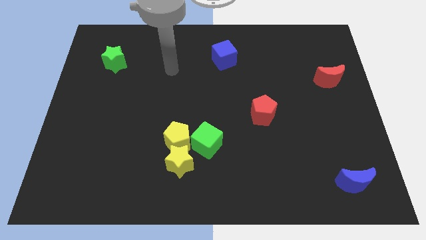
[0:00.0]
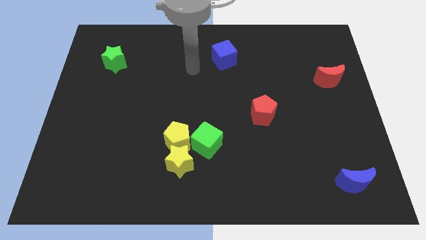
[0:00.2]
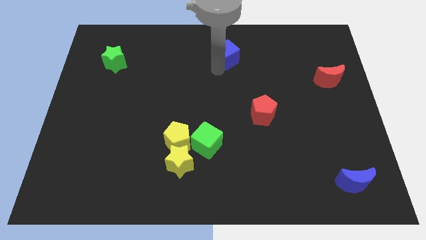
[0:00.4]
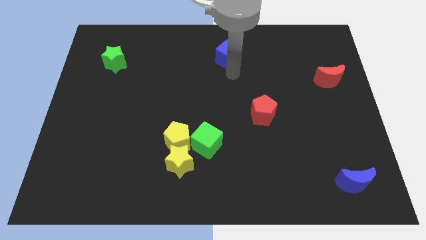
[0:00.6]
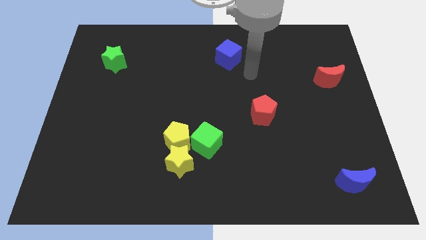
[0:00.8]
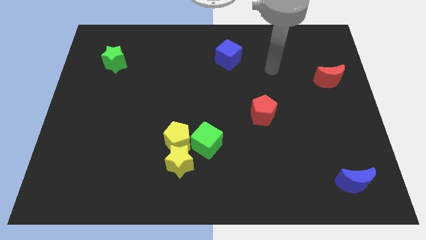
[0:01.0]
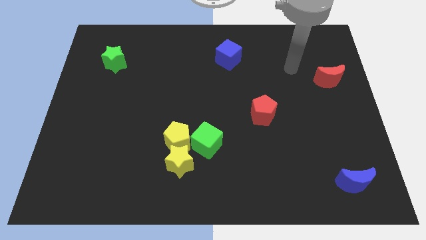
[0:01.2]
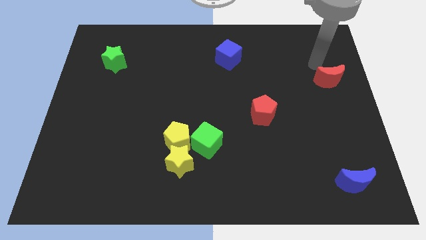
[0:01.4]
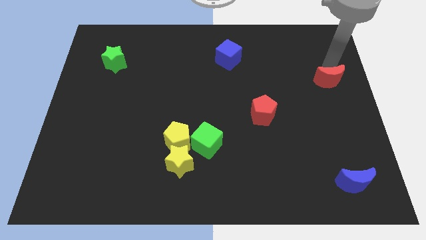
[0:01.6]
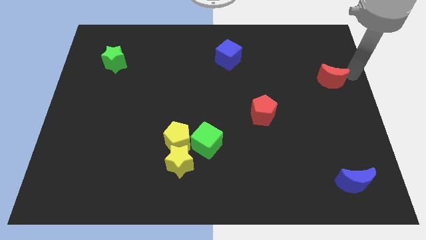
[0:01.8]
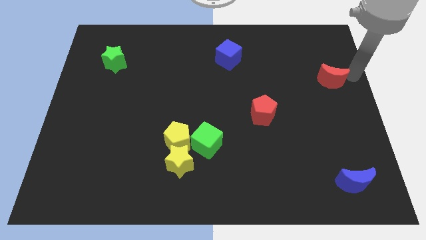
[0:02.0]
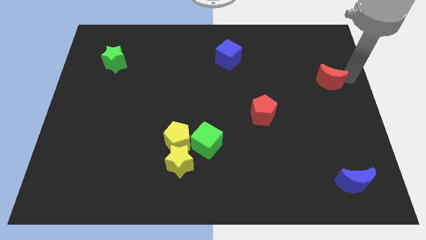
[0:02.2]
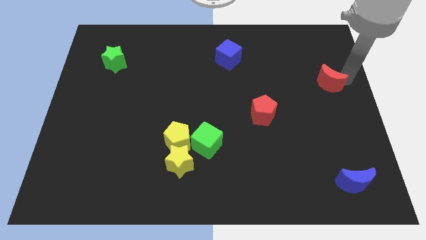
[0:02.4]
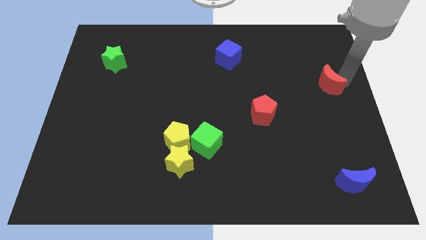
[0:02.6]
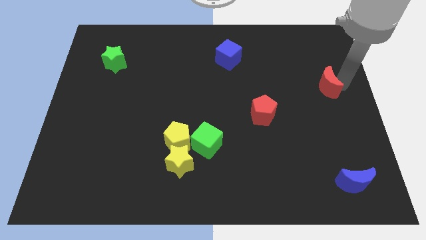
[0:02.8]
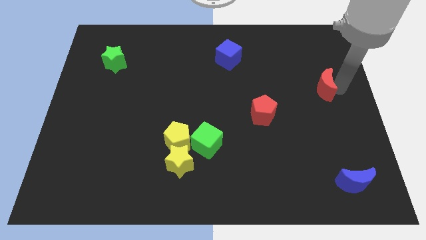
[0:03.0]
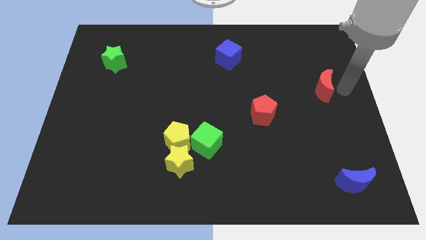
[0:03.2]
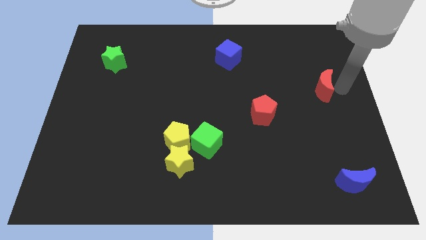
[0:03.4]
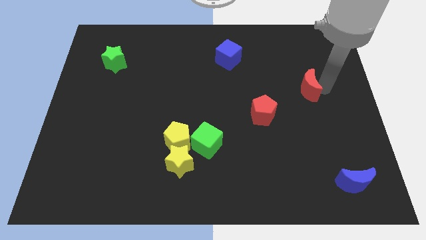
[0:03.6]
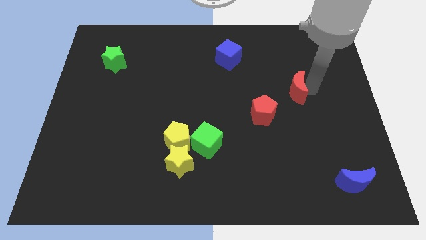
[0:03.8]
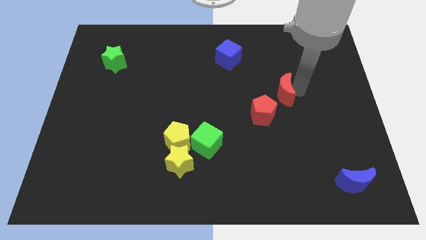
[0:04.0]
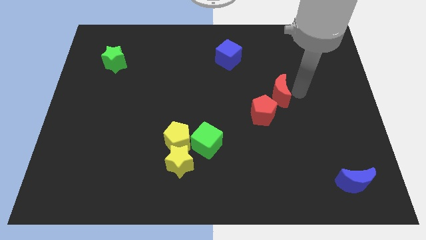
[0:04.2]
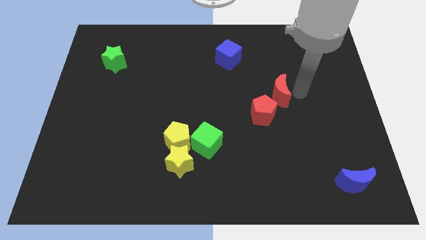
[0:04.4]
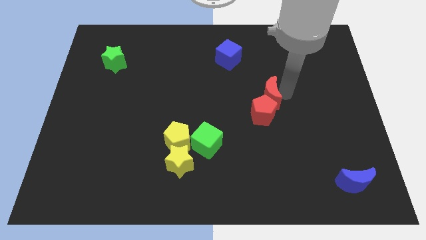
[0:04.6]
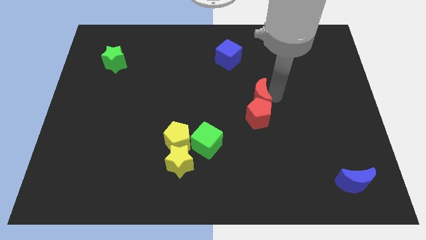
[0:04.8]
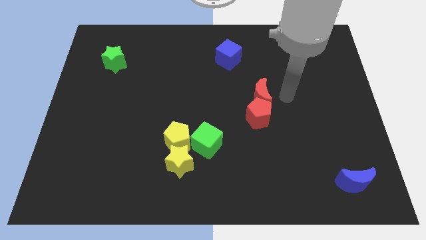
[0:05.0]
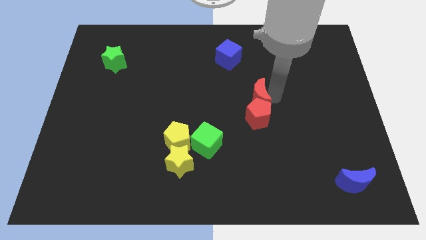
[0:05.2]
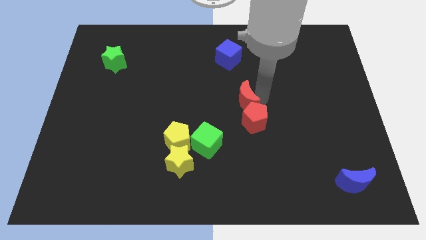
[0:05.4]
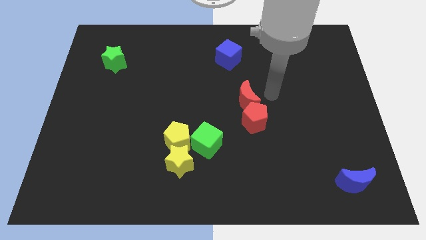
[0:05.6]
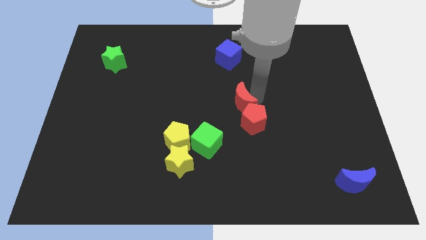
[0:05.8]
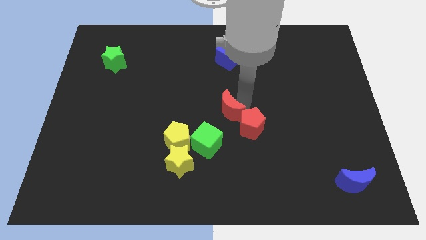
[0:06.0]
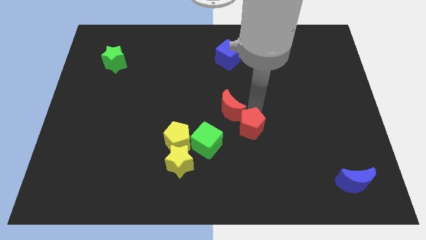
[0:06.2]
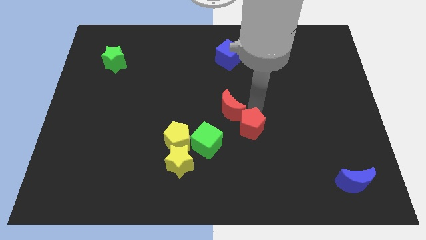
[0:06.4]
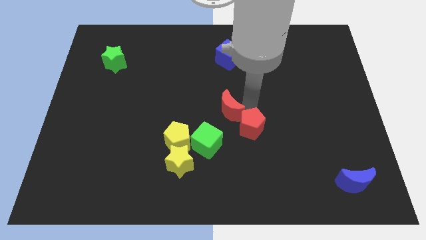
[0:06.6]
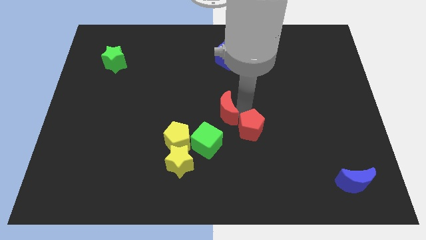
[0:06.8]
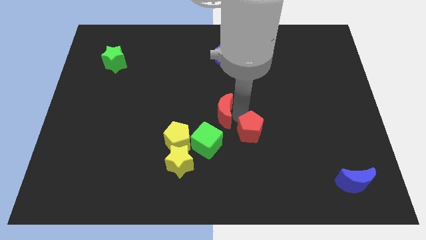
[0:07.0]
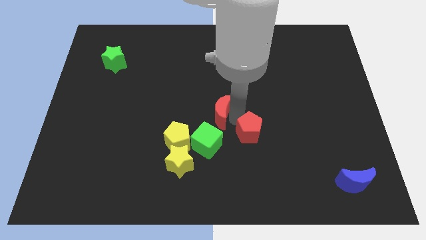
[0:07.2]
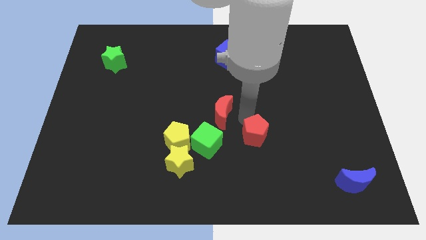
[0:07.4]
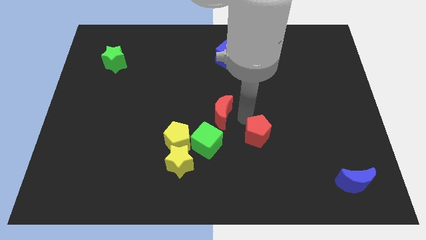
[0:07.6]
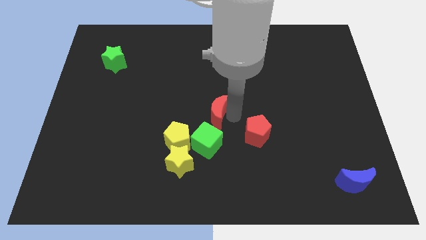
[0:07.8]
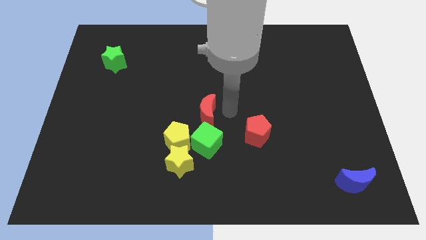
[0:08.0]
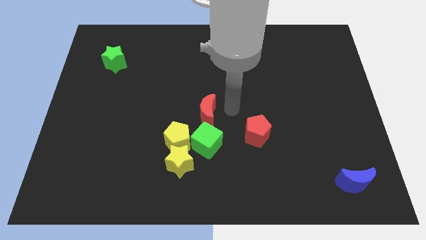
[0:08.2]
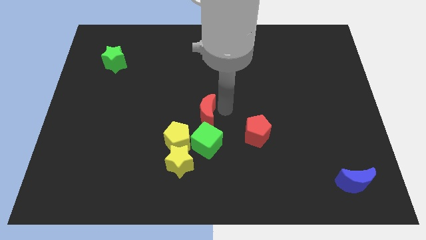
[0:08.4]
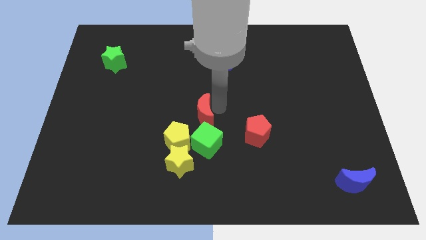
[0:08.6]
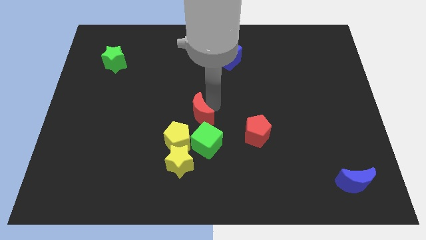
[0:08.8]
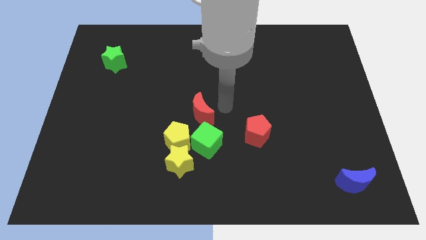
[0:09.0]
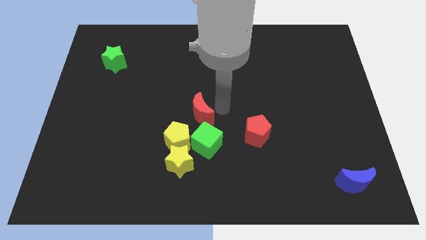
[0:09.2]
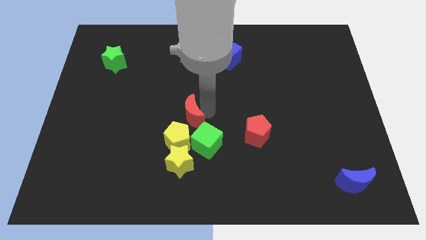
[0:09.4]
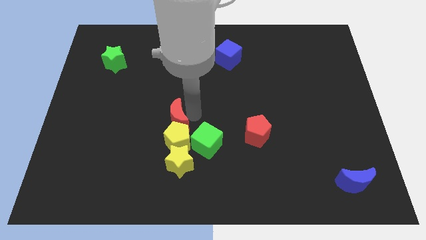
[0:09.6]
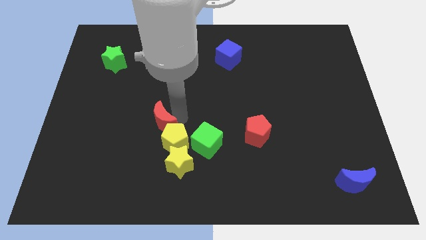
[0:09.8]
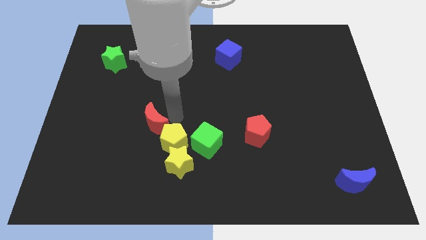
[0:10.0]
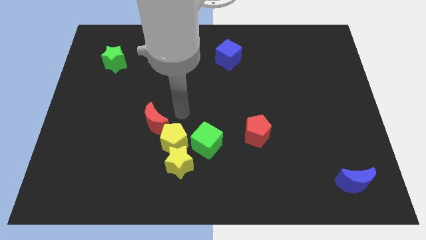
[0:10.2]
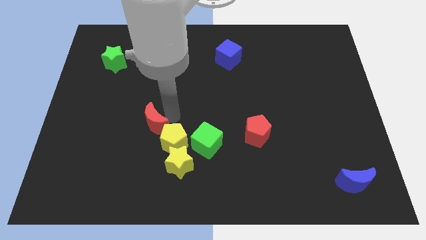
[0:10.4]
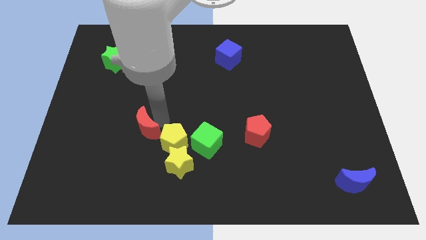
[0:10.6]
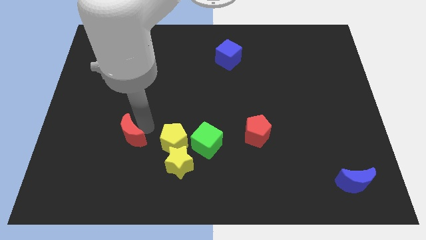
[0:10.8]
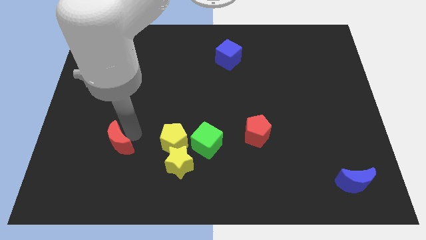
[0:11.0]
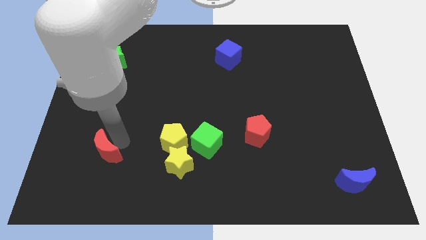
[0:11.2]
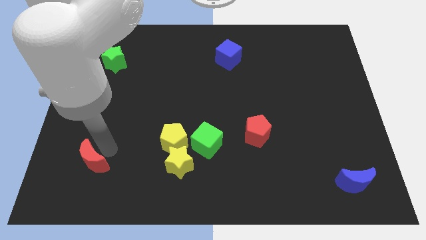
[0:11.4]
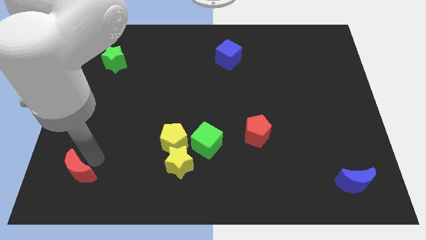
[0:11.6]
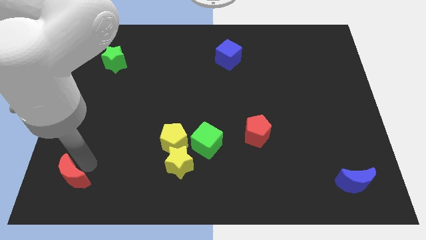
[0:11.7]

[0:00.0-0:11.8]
push the red moon to the bottom left
